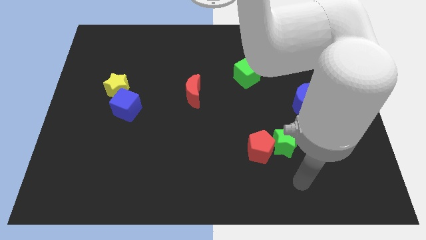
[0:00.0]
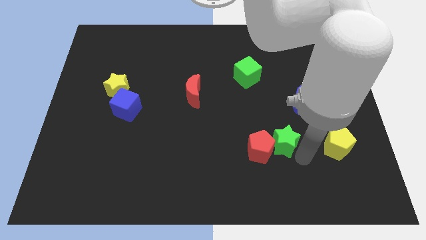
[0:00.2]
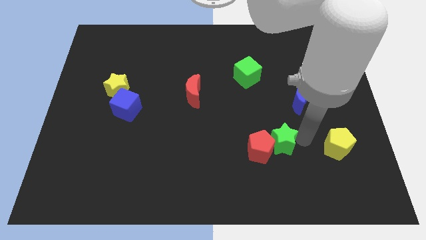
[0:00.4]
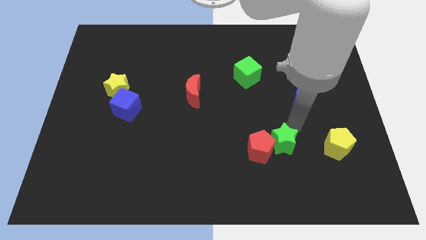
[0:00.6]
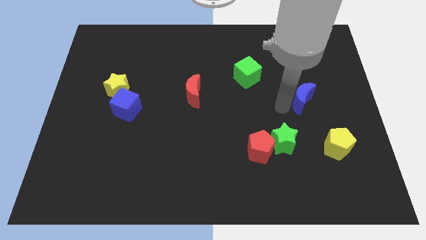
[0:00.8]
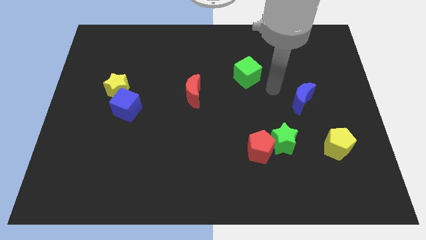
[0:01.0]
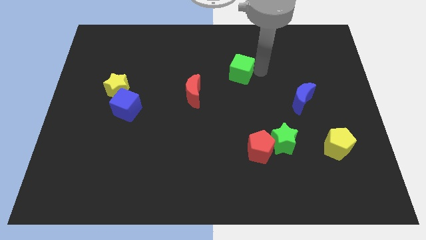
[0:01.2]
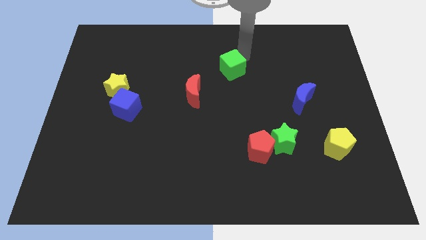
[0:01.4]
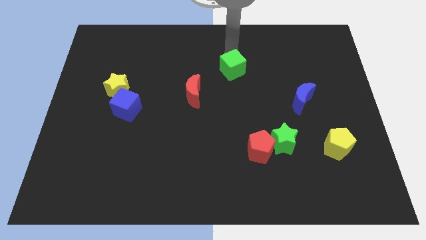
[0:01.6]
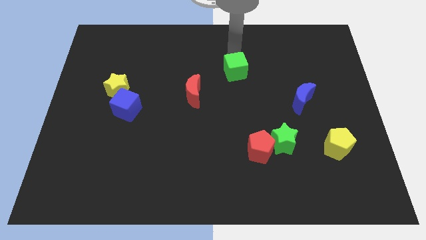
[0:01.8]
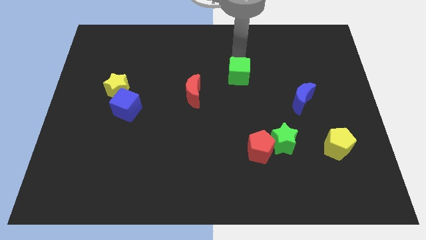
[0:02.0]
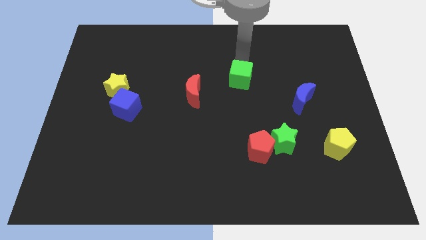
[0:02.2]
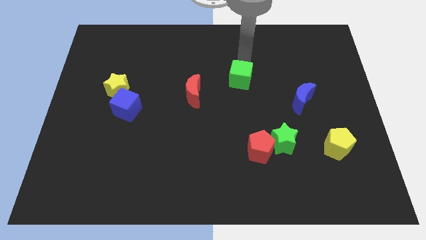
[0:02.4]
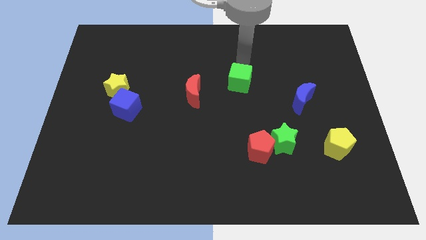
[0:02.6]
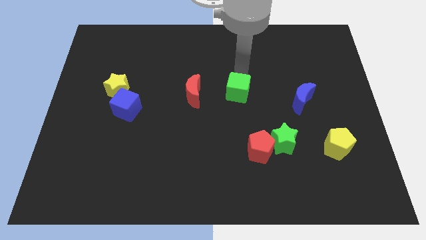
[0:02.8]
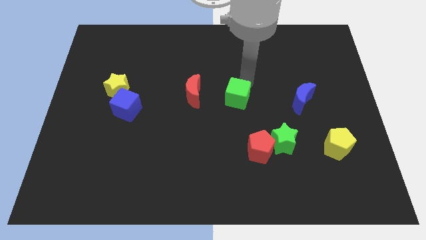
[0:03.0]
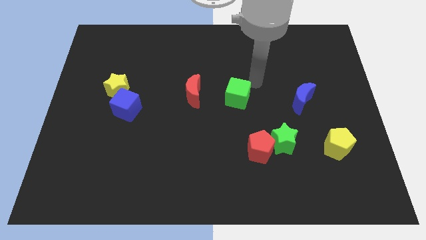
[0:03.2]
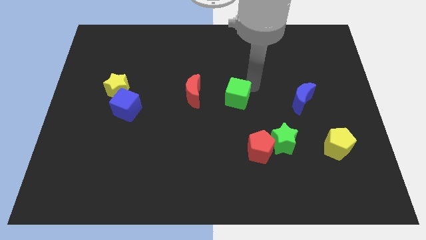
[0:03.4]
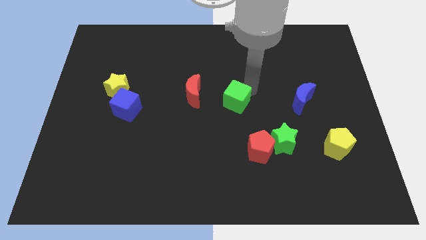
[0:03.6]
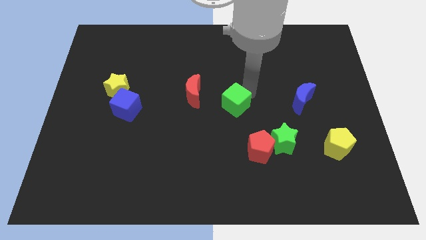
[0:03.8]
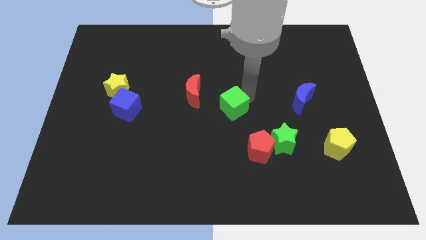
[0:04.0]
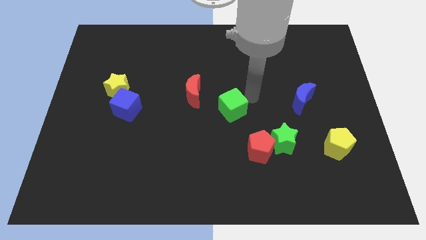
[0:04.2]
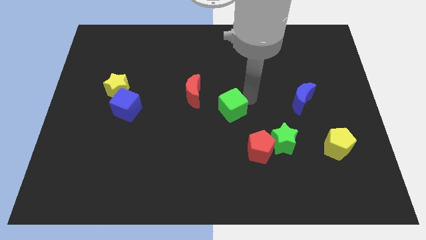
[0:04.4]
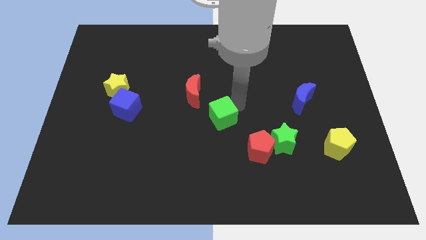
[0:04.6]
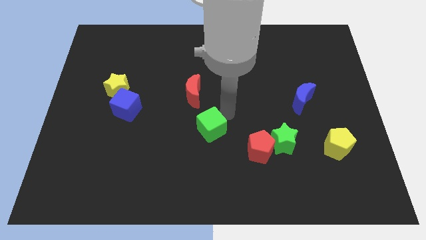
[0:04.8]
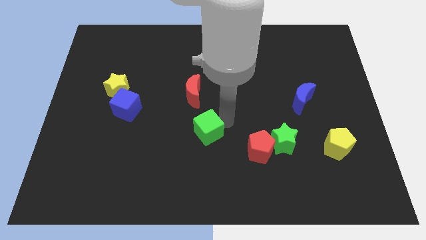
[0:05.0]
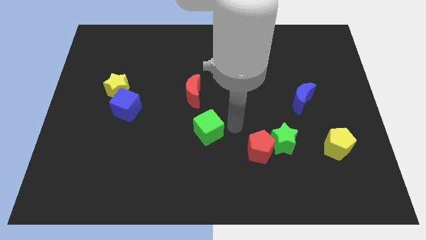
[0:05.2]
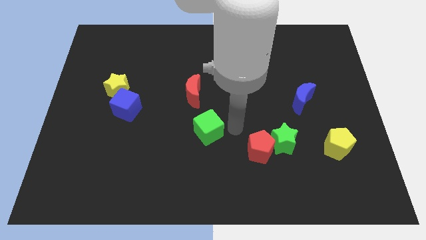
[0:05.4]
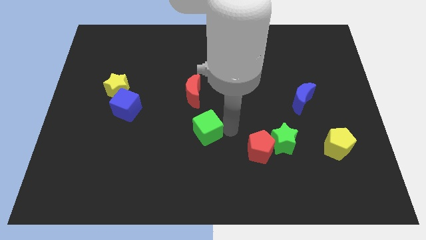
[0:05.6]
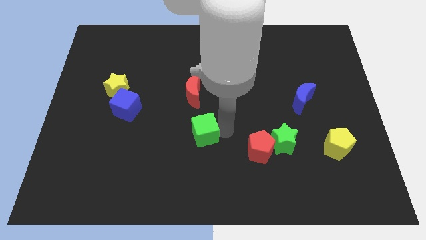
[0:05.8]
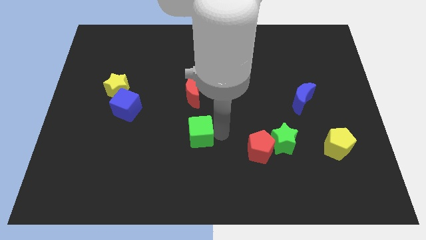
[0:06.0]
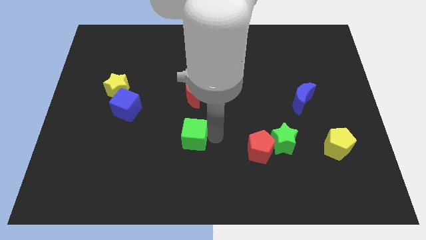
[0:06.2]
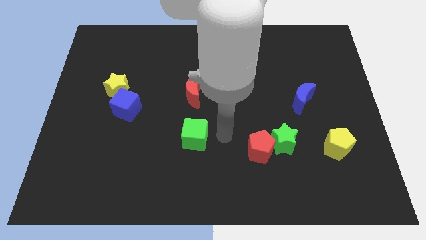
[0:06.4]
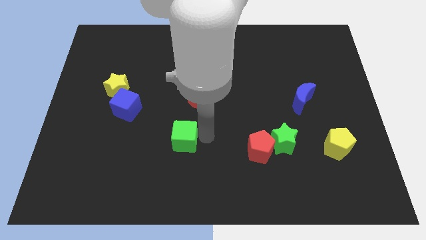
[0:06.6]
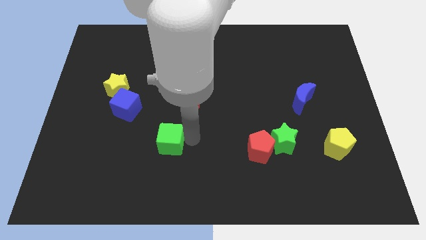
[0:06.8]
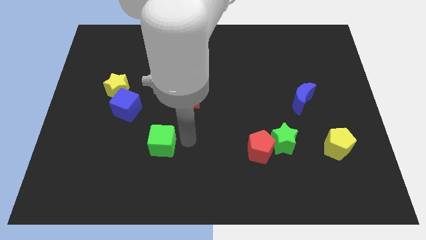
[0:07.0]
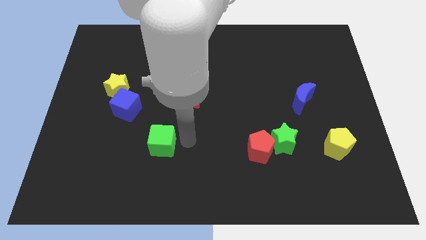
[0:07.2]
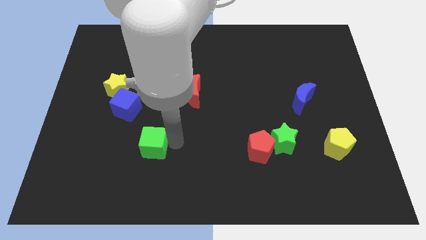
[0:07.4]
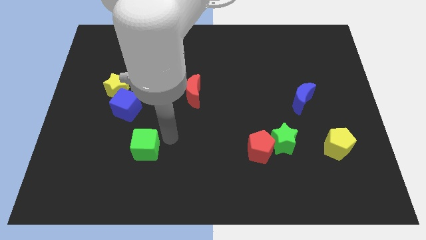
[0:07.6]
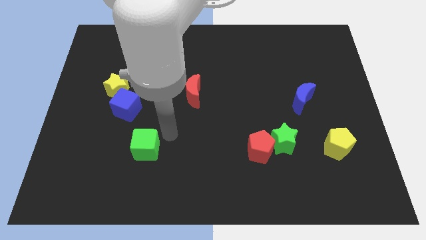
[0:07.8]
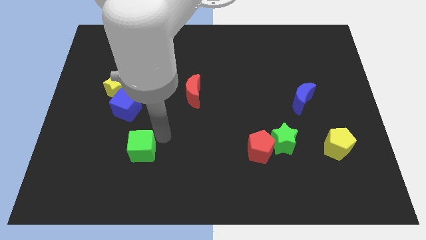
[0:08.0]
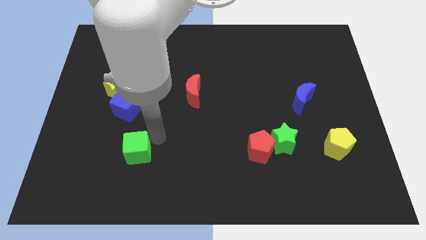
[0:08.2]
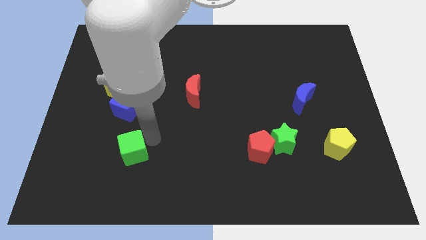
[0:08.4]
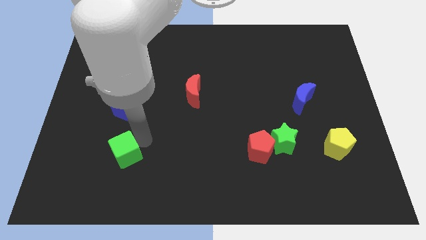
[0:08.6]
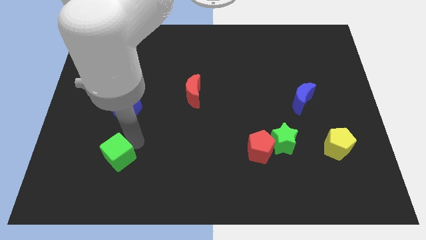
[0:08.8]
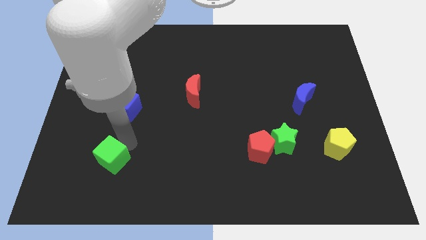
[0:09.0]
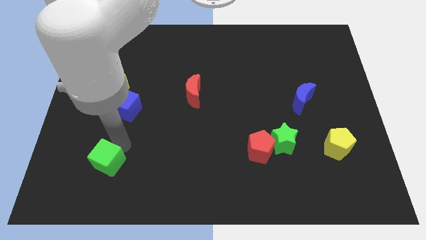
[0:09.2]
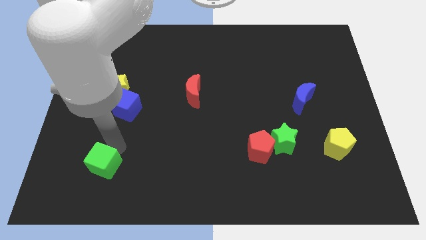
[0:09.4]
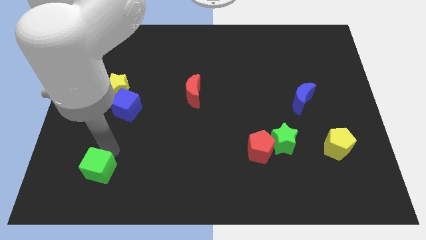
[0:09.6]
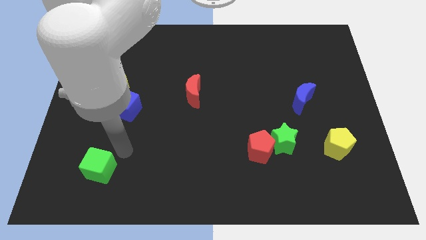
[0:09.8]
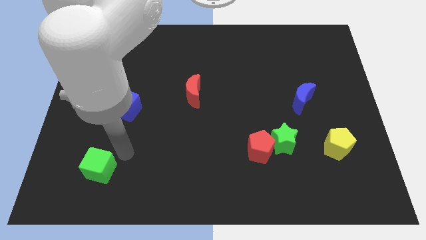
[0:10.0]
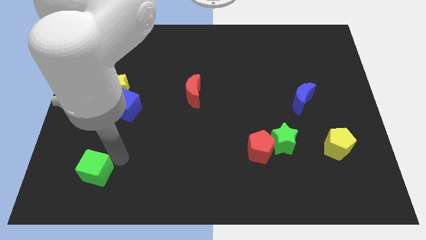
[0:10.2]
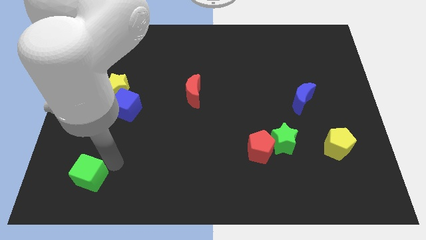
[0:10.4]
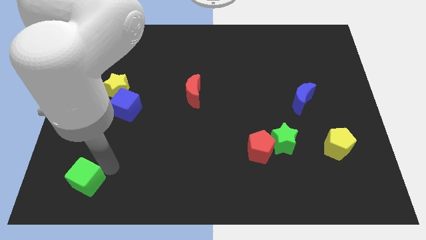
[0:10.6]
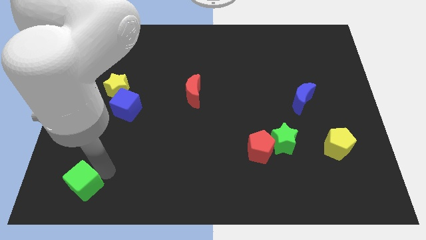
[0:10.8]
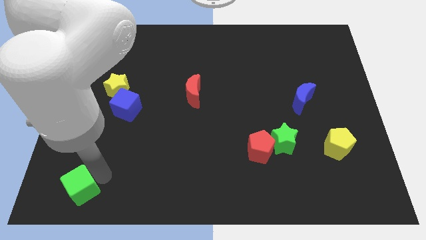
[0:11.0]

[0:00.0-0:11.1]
move the green cube to the bottom left of the board

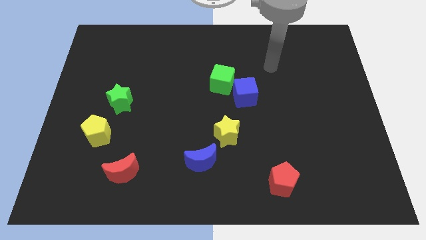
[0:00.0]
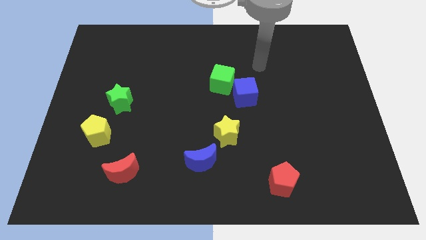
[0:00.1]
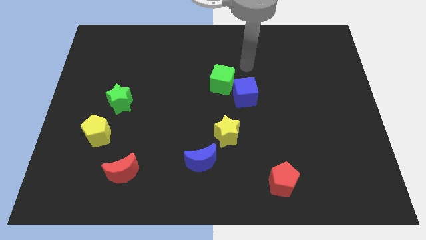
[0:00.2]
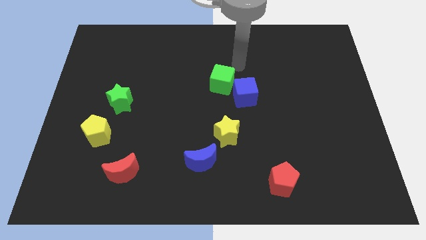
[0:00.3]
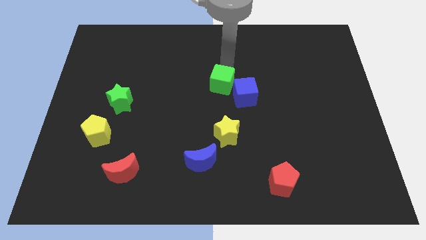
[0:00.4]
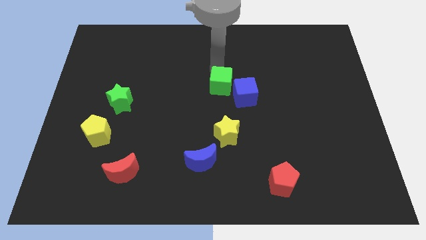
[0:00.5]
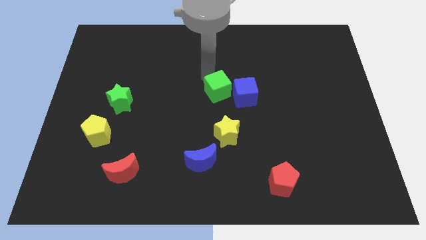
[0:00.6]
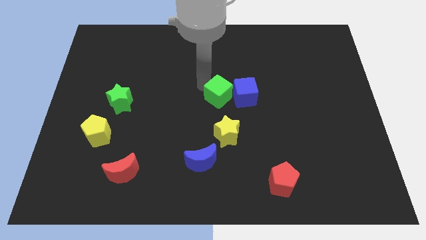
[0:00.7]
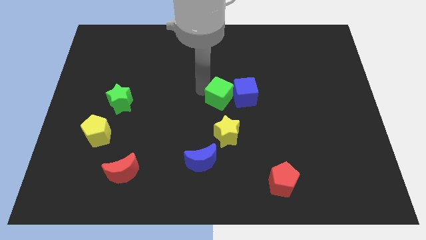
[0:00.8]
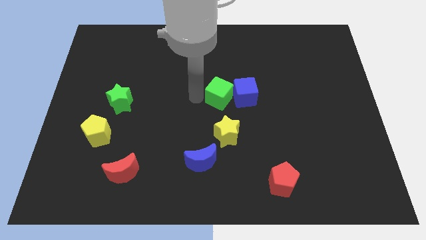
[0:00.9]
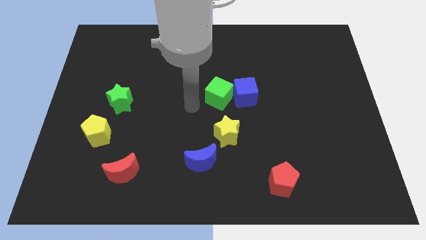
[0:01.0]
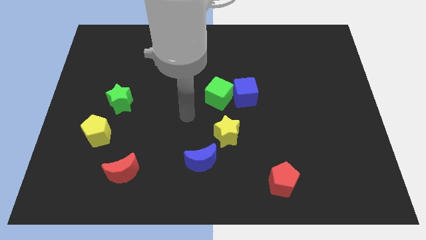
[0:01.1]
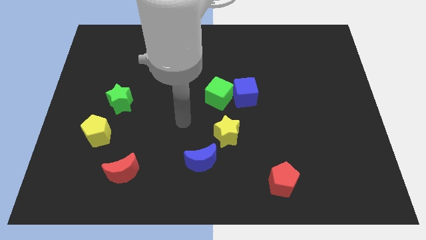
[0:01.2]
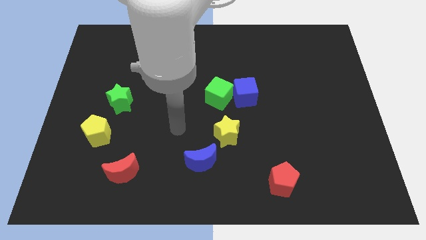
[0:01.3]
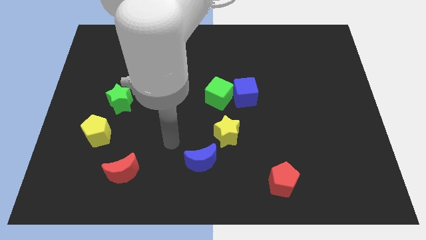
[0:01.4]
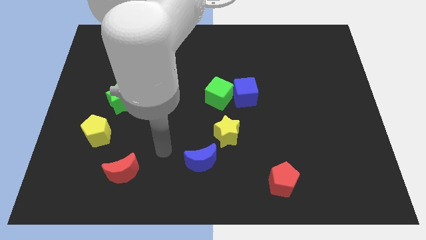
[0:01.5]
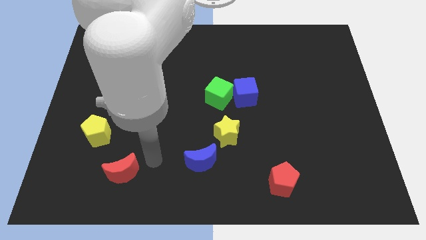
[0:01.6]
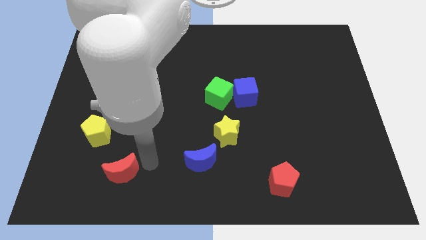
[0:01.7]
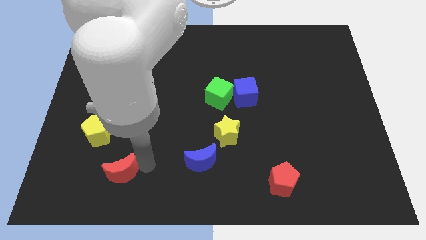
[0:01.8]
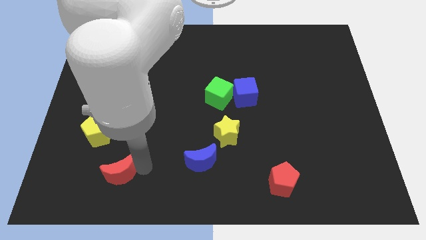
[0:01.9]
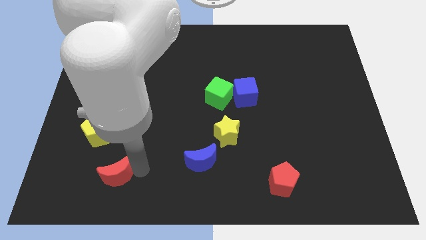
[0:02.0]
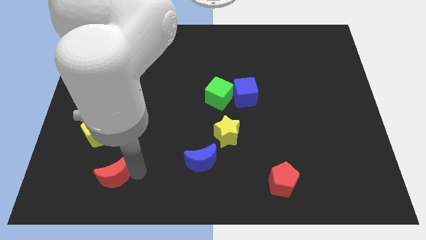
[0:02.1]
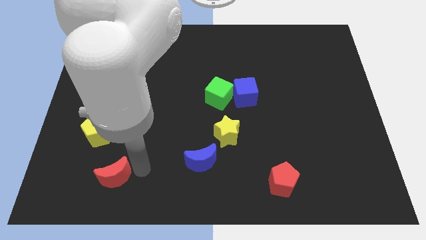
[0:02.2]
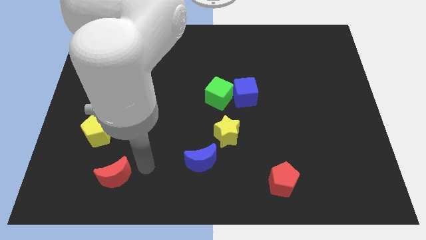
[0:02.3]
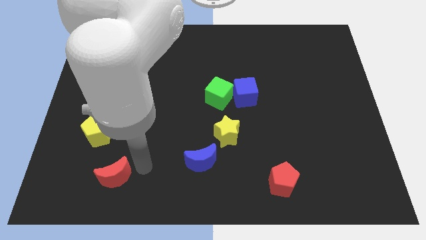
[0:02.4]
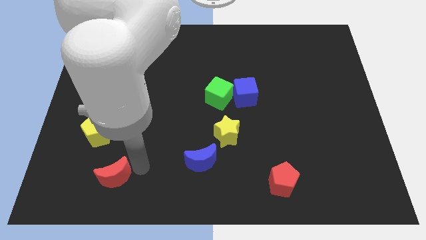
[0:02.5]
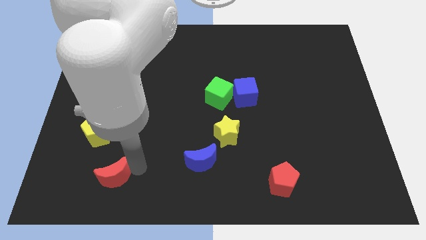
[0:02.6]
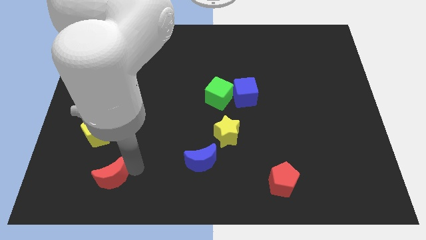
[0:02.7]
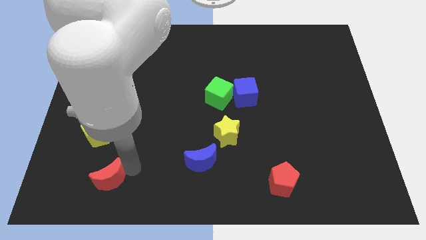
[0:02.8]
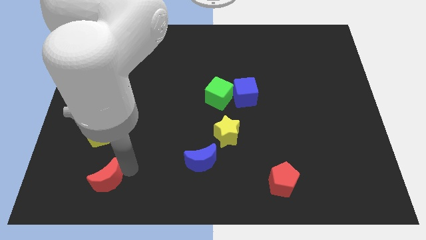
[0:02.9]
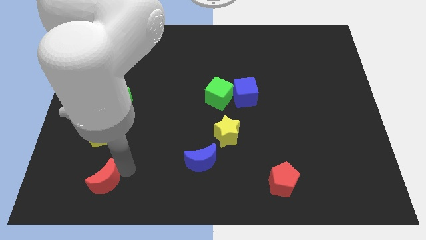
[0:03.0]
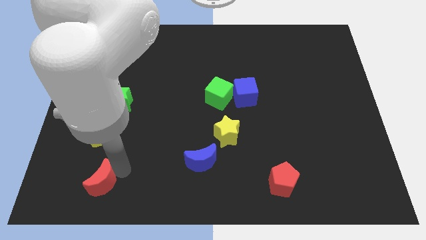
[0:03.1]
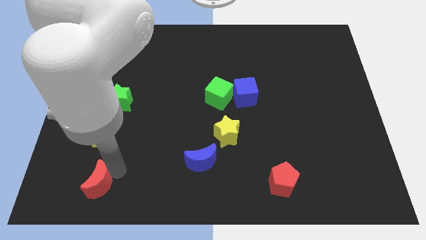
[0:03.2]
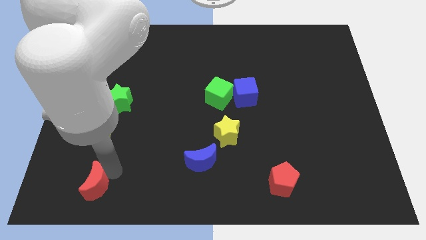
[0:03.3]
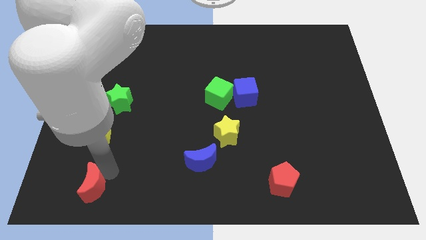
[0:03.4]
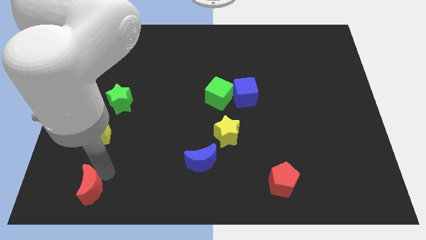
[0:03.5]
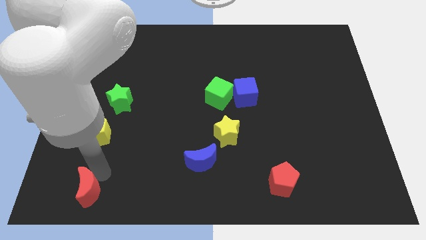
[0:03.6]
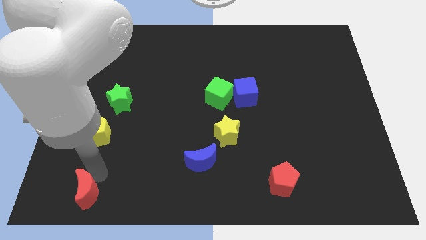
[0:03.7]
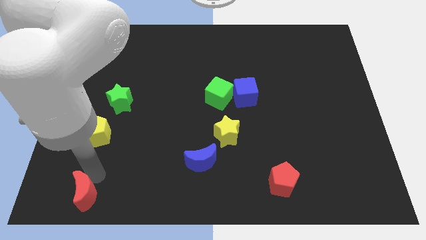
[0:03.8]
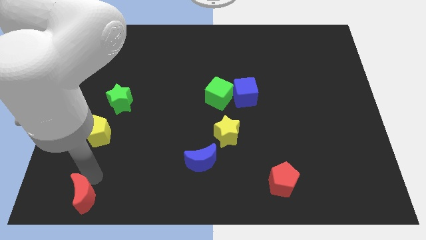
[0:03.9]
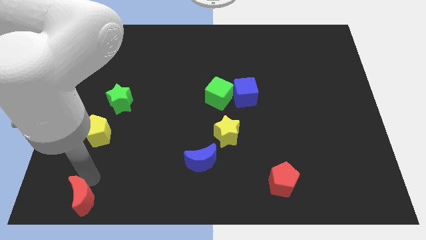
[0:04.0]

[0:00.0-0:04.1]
move the red moon to the bottom left corner
